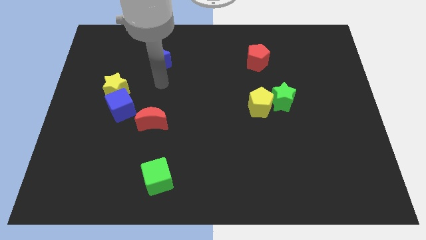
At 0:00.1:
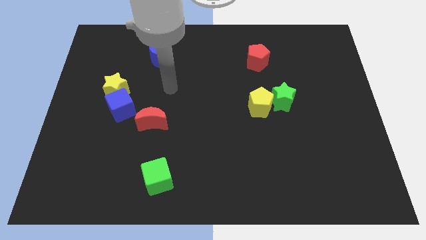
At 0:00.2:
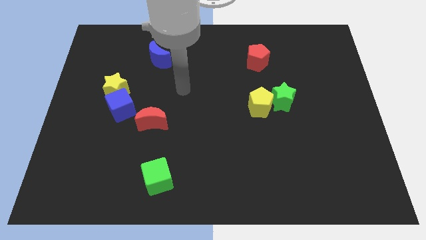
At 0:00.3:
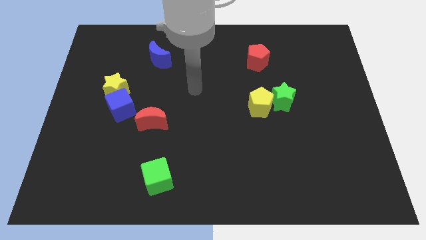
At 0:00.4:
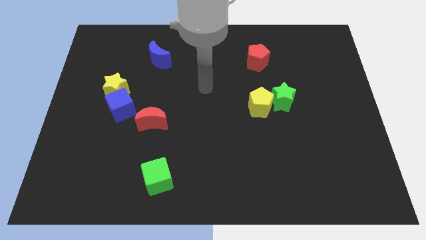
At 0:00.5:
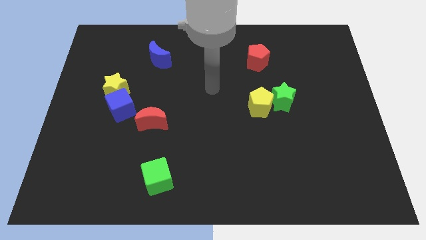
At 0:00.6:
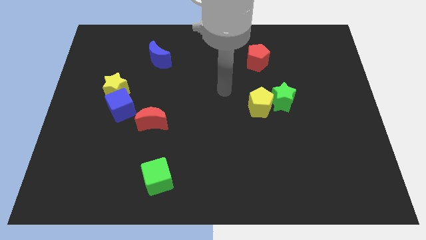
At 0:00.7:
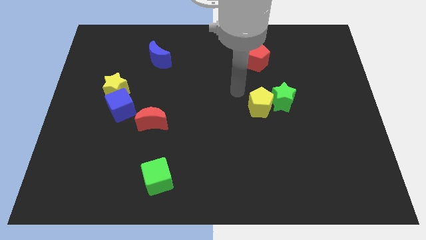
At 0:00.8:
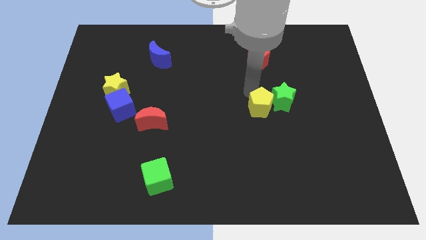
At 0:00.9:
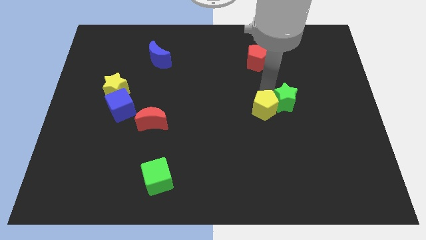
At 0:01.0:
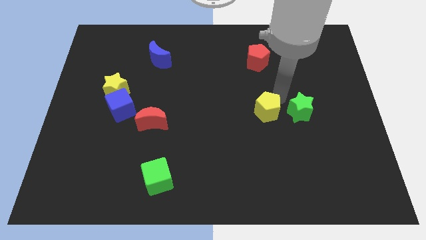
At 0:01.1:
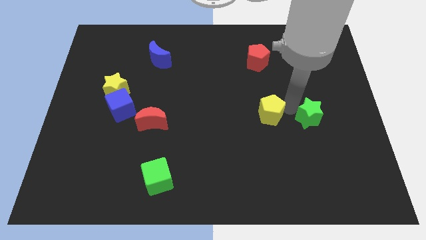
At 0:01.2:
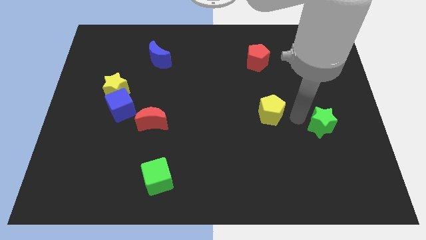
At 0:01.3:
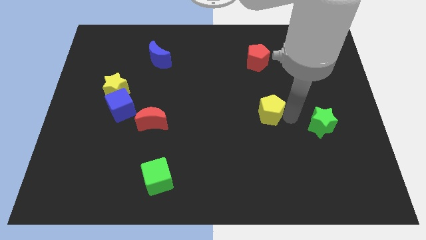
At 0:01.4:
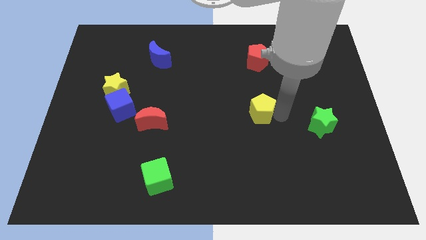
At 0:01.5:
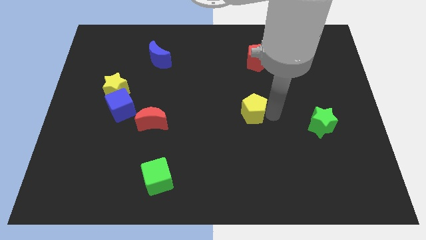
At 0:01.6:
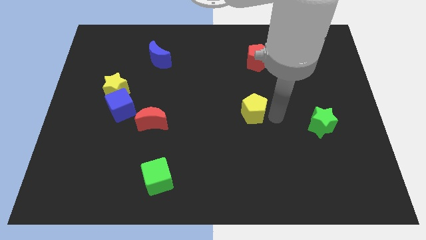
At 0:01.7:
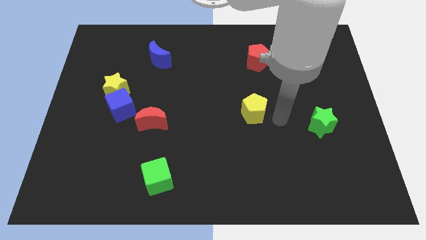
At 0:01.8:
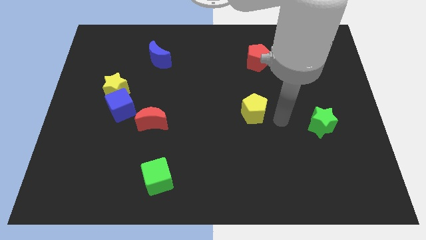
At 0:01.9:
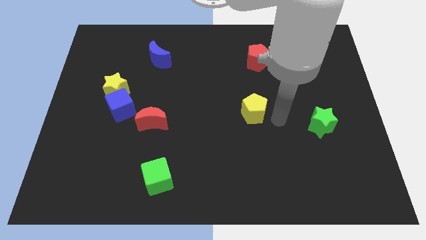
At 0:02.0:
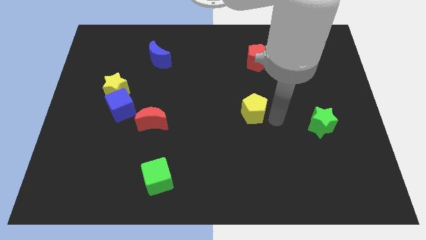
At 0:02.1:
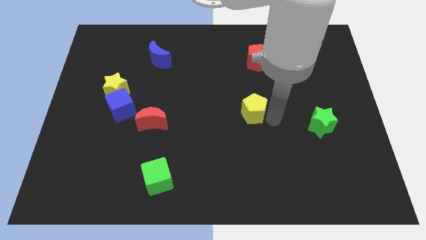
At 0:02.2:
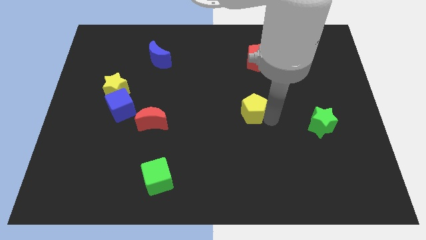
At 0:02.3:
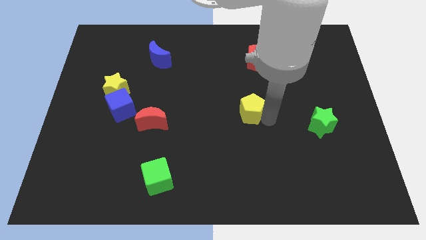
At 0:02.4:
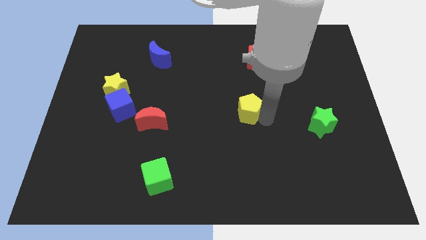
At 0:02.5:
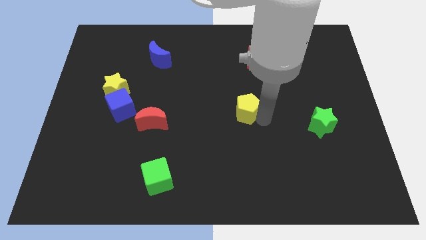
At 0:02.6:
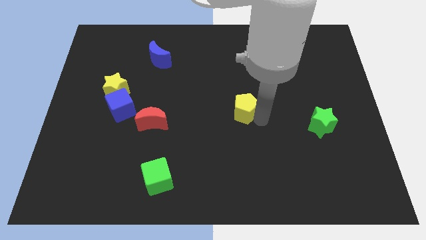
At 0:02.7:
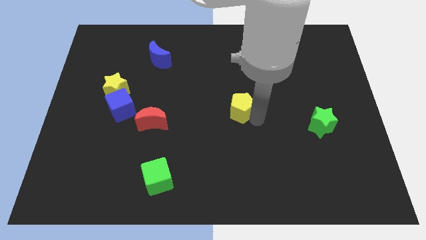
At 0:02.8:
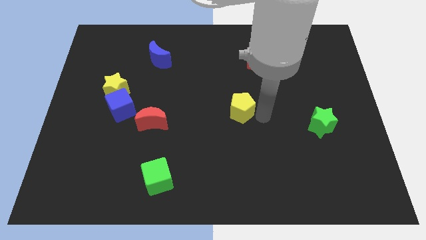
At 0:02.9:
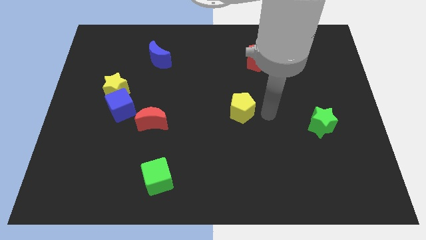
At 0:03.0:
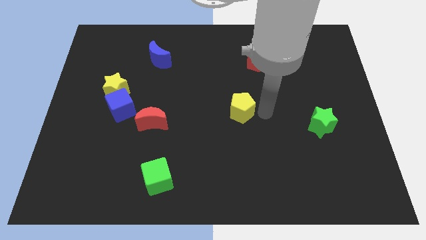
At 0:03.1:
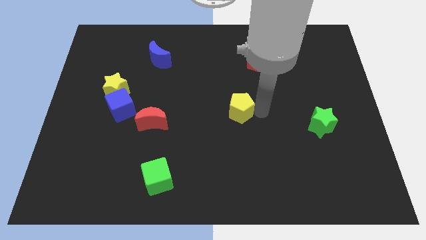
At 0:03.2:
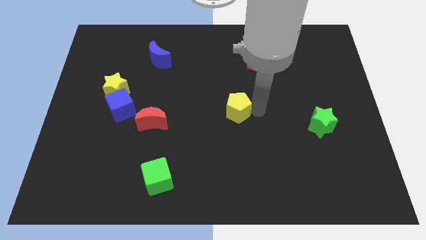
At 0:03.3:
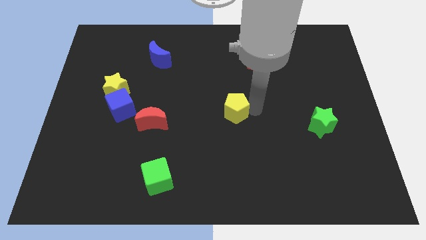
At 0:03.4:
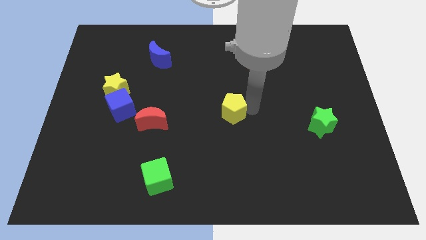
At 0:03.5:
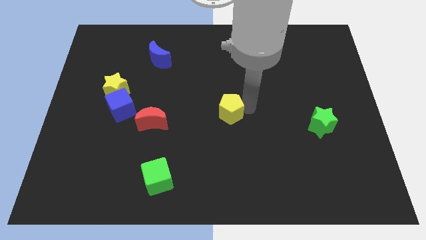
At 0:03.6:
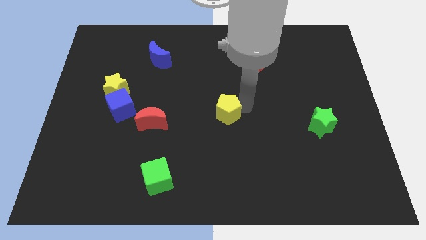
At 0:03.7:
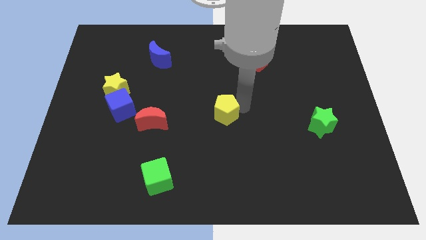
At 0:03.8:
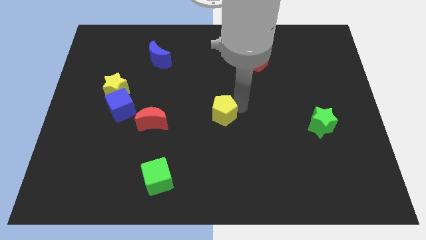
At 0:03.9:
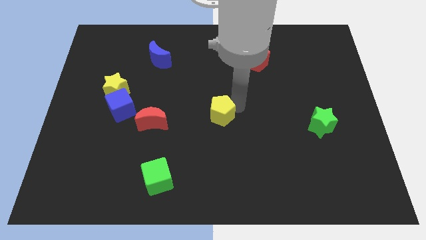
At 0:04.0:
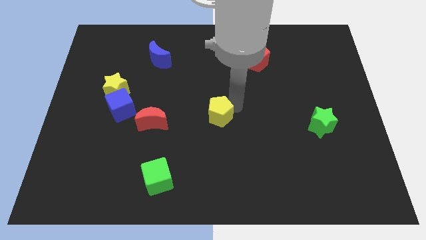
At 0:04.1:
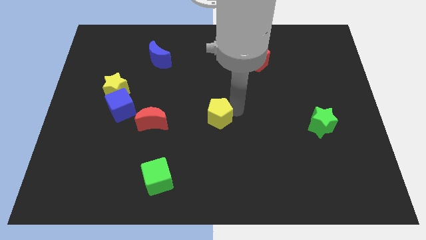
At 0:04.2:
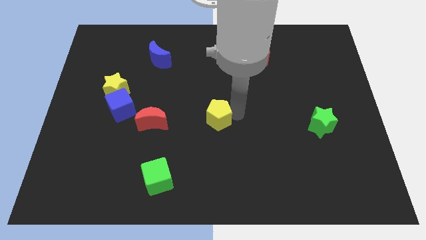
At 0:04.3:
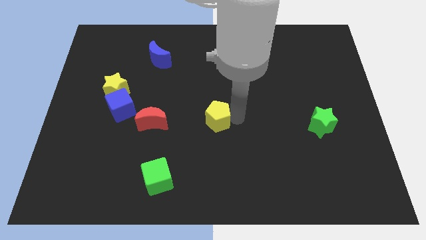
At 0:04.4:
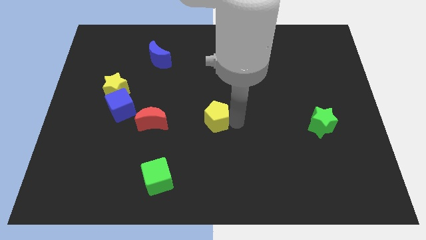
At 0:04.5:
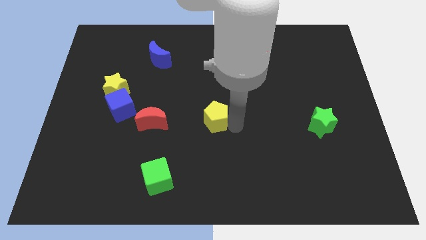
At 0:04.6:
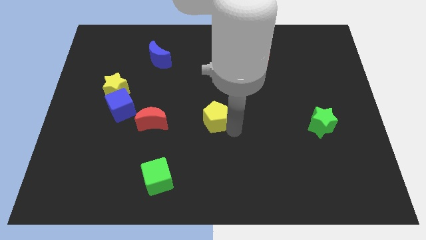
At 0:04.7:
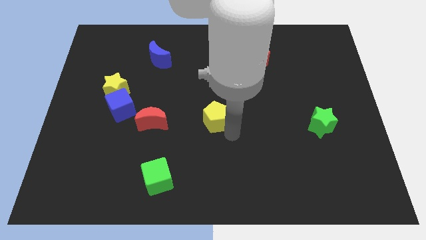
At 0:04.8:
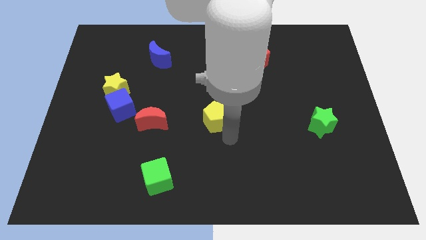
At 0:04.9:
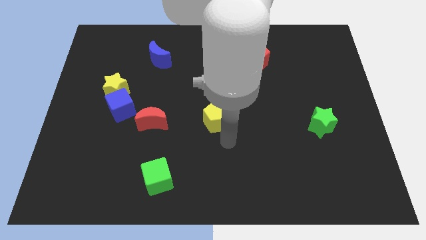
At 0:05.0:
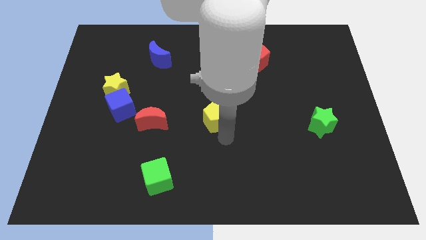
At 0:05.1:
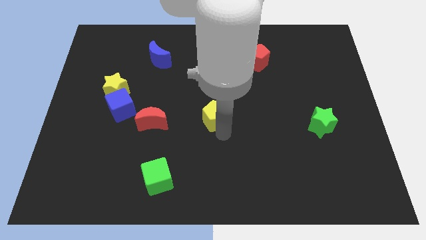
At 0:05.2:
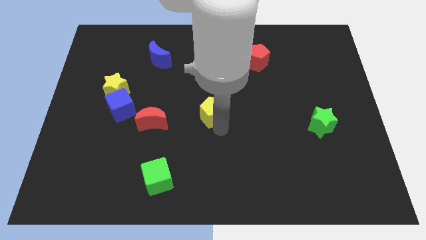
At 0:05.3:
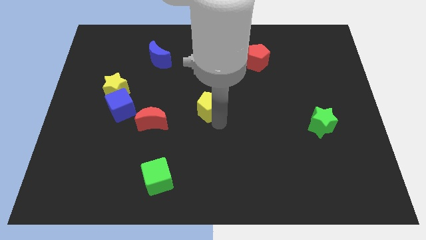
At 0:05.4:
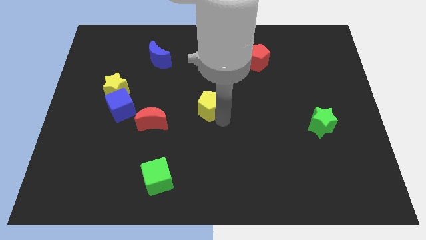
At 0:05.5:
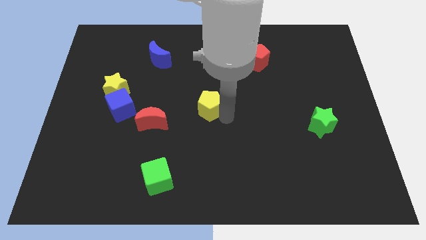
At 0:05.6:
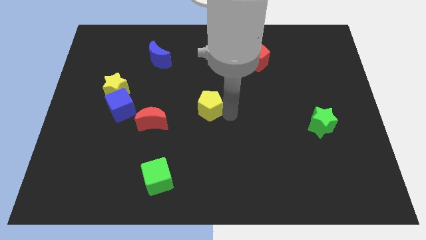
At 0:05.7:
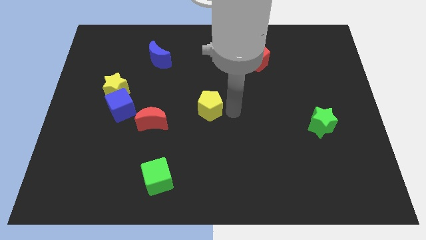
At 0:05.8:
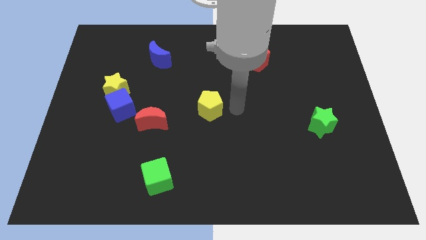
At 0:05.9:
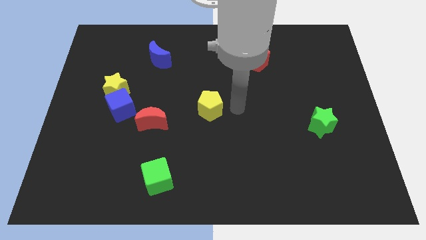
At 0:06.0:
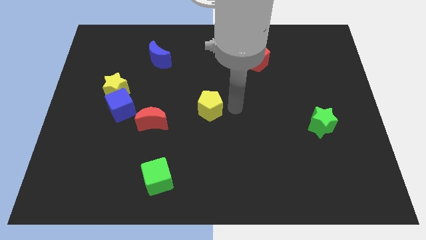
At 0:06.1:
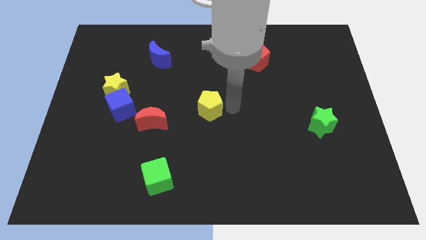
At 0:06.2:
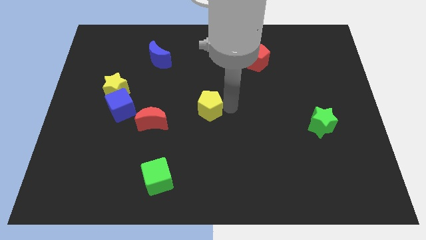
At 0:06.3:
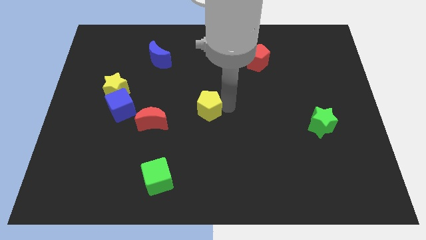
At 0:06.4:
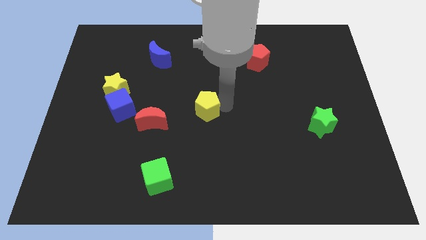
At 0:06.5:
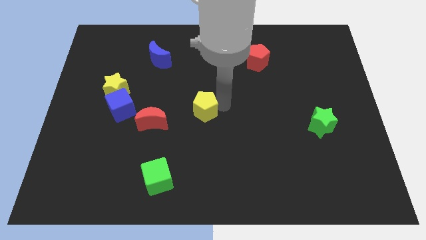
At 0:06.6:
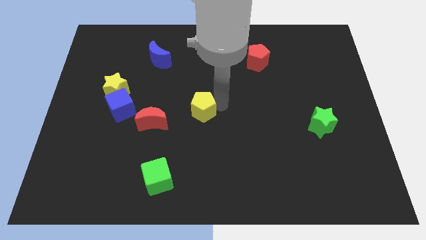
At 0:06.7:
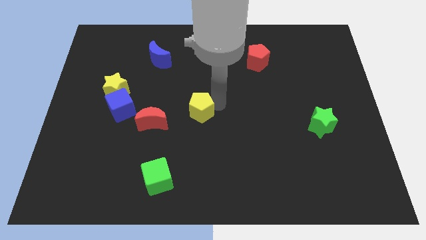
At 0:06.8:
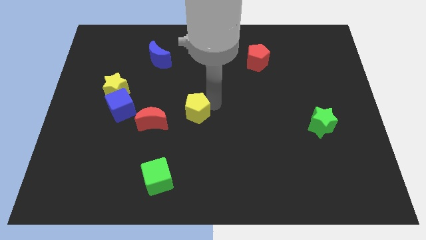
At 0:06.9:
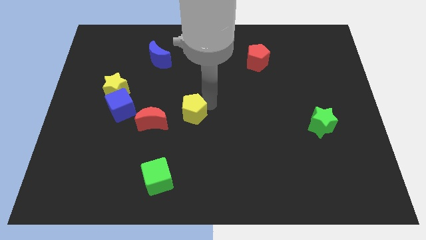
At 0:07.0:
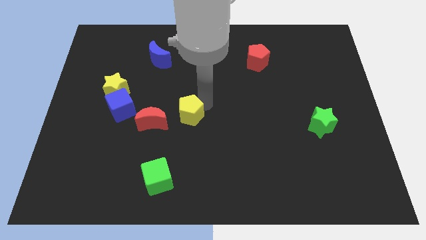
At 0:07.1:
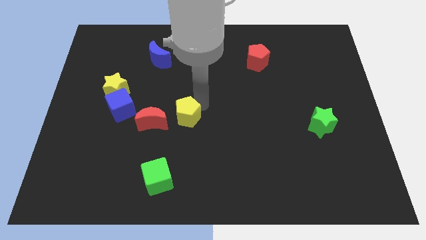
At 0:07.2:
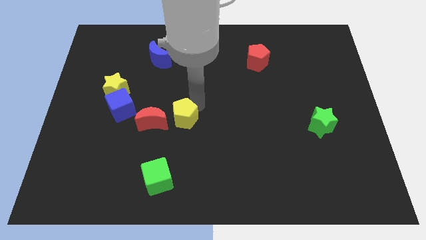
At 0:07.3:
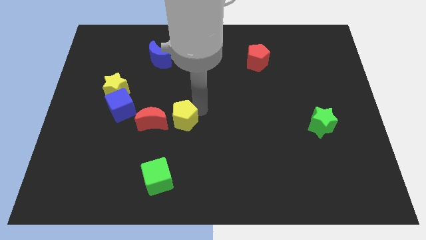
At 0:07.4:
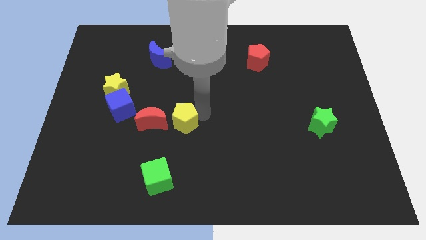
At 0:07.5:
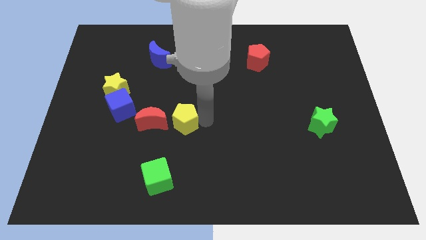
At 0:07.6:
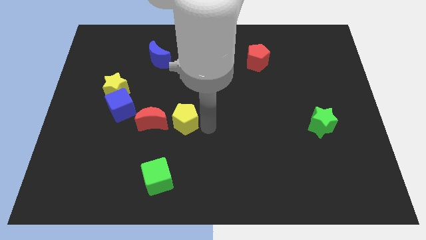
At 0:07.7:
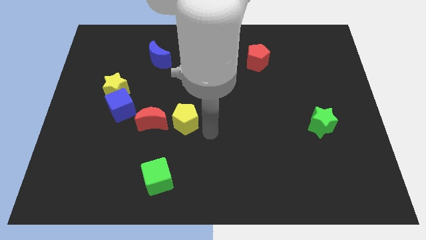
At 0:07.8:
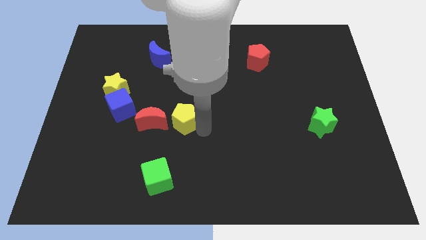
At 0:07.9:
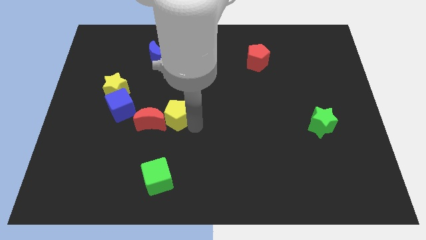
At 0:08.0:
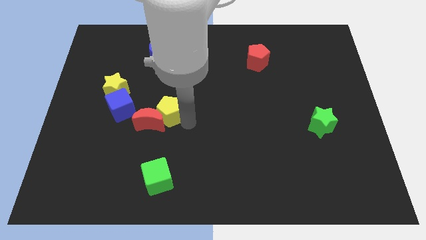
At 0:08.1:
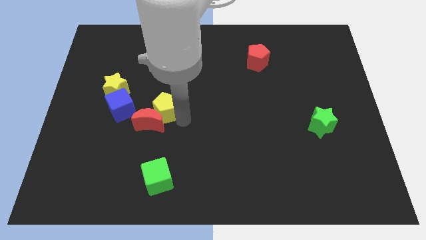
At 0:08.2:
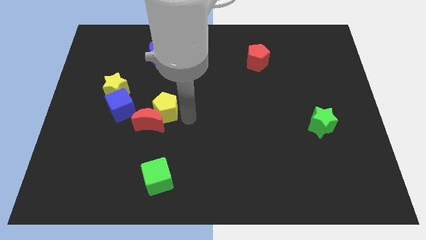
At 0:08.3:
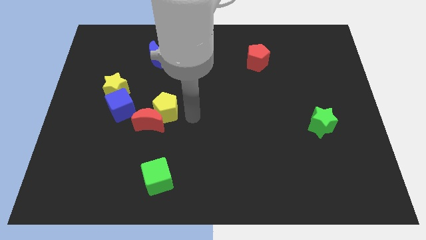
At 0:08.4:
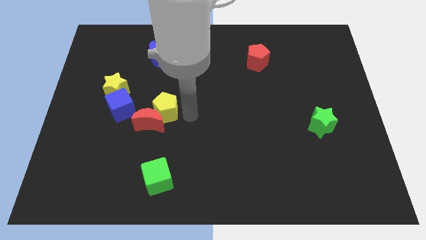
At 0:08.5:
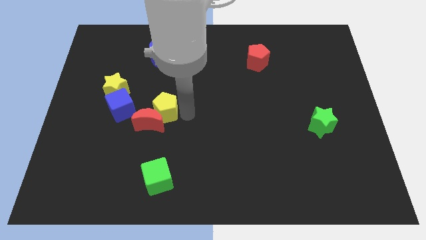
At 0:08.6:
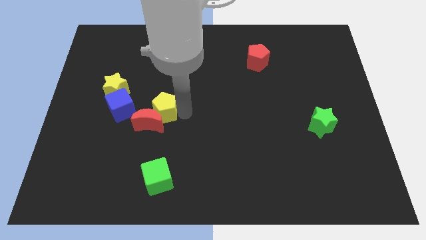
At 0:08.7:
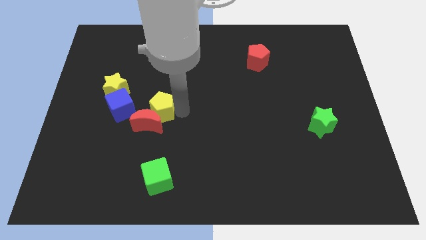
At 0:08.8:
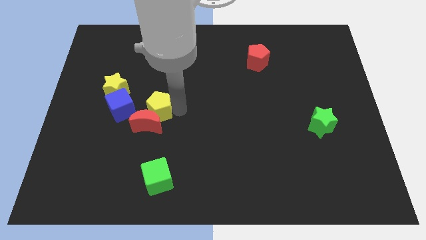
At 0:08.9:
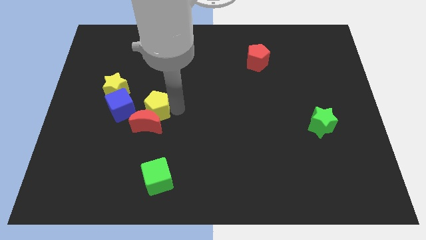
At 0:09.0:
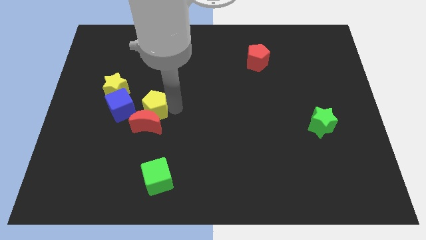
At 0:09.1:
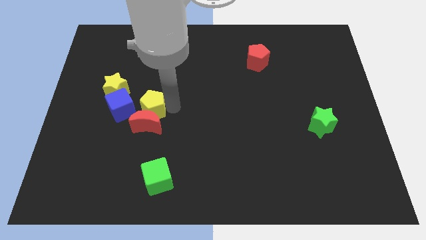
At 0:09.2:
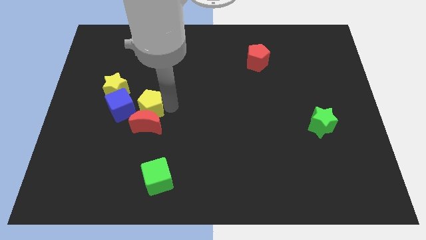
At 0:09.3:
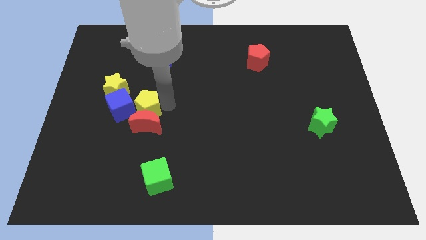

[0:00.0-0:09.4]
put the yellow pentagon to the blue cube
